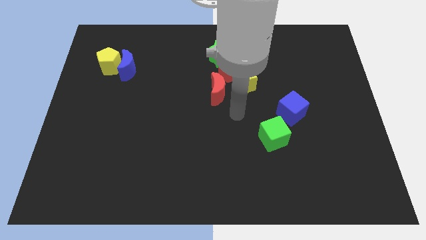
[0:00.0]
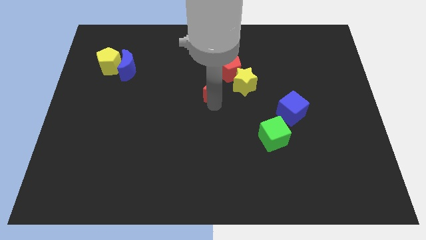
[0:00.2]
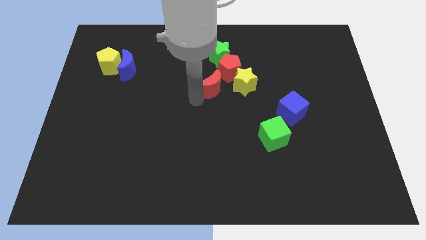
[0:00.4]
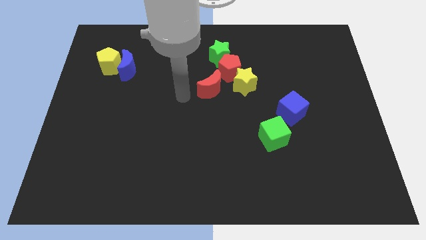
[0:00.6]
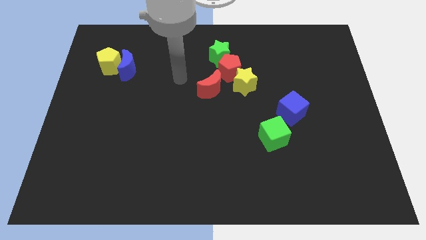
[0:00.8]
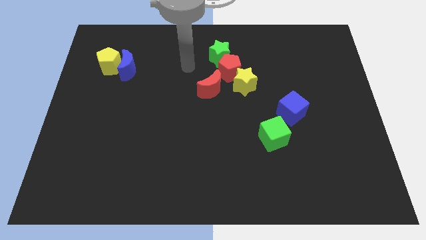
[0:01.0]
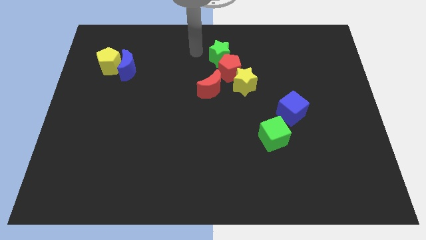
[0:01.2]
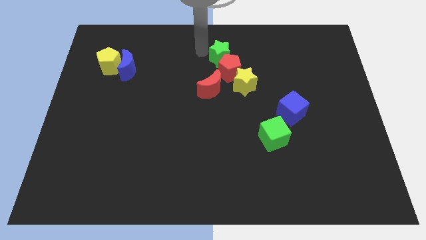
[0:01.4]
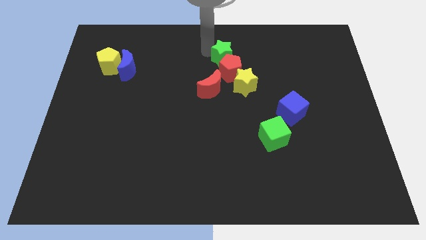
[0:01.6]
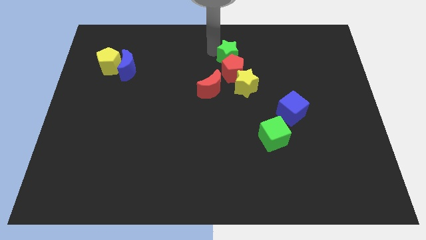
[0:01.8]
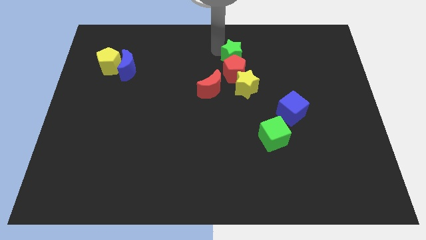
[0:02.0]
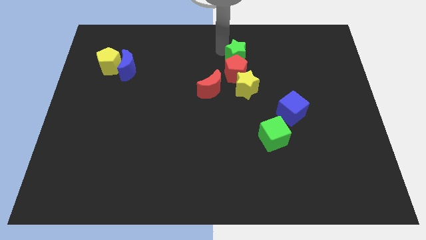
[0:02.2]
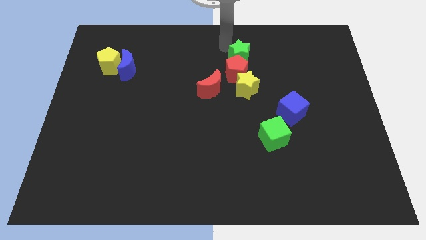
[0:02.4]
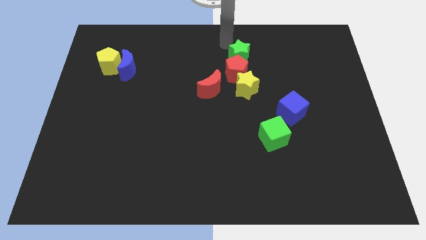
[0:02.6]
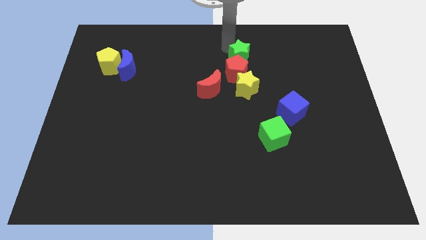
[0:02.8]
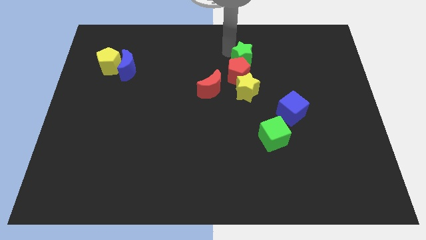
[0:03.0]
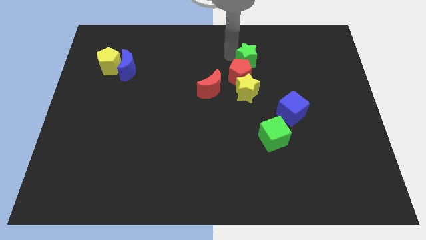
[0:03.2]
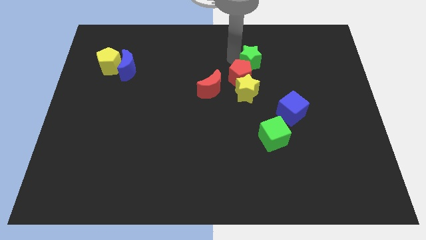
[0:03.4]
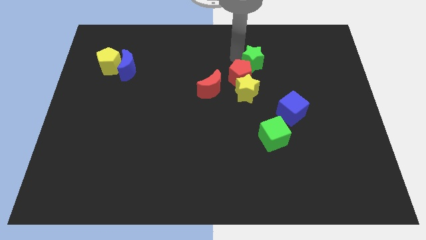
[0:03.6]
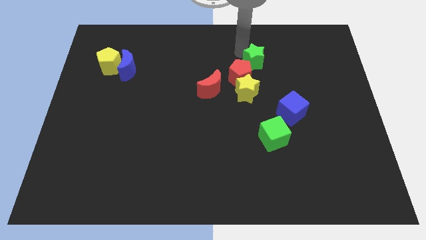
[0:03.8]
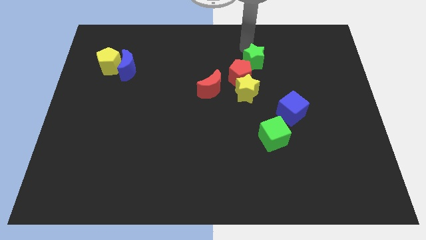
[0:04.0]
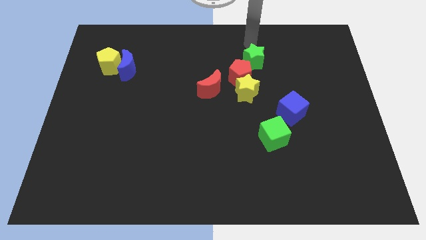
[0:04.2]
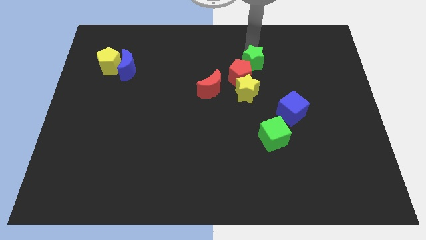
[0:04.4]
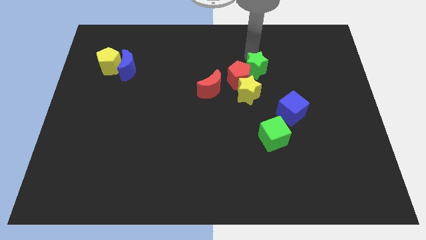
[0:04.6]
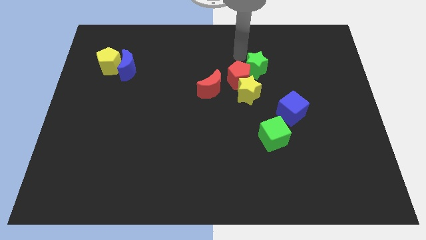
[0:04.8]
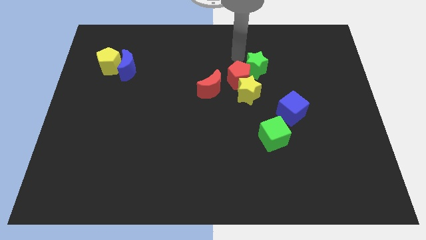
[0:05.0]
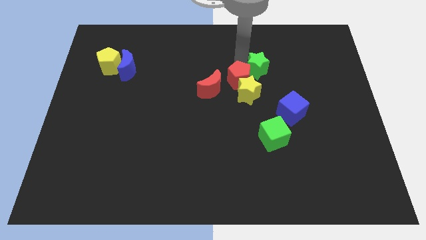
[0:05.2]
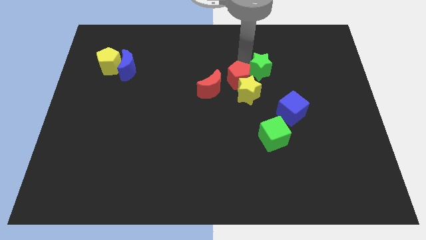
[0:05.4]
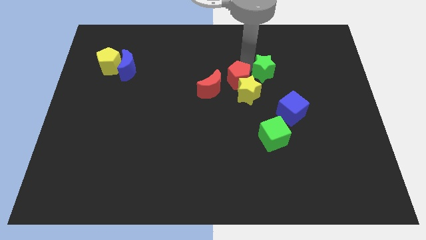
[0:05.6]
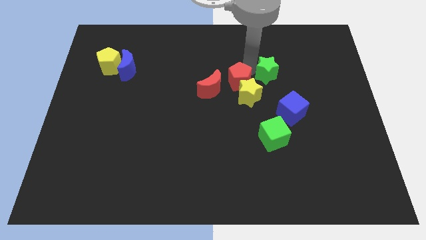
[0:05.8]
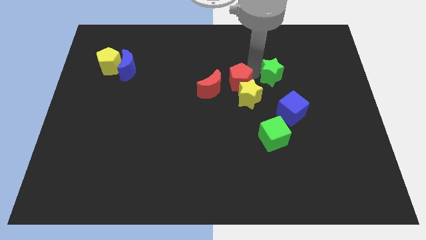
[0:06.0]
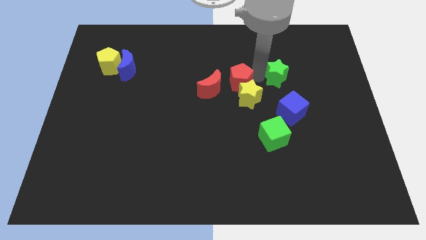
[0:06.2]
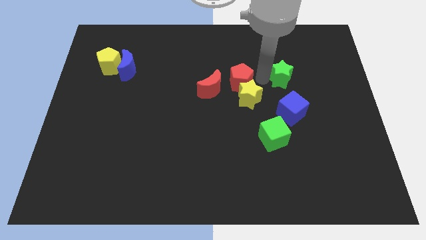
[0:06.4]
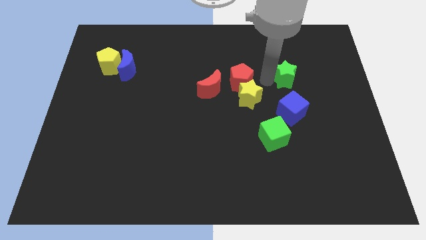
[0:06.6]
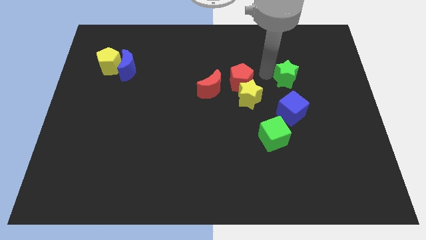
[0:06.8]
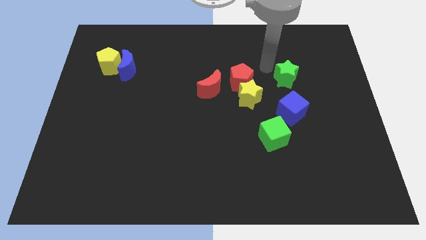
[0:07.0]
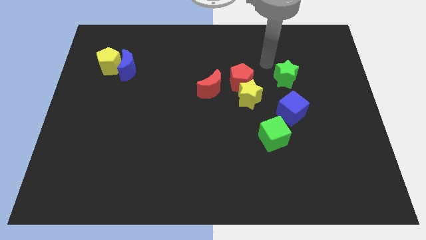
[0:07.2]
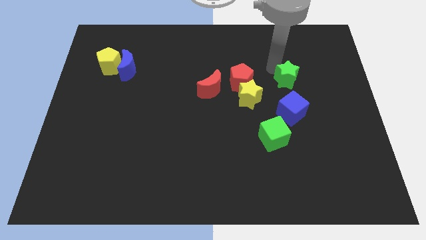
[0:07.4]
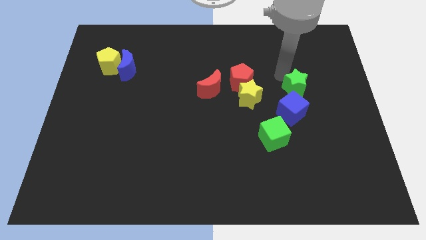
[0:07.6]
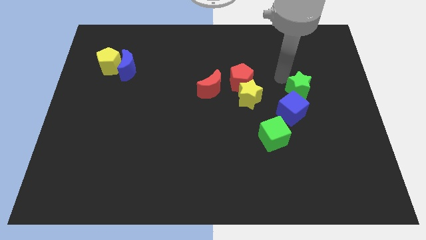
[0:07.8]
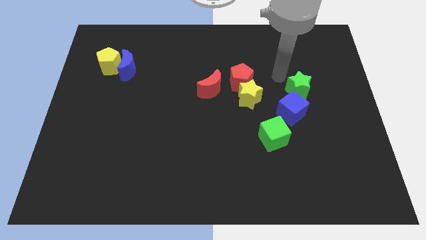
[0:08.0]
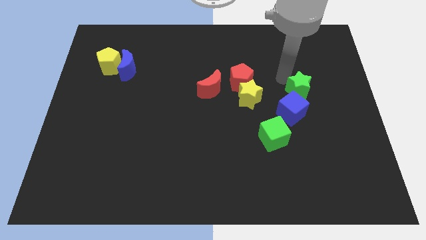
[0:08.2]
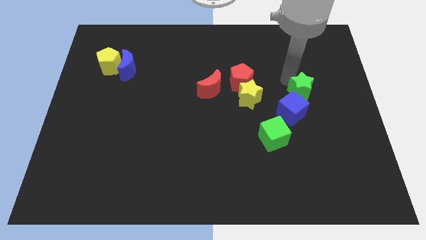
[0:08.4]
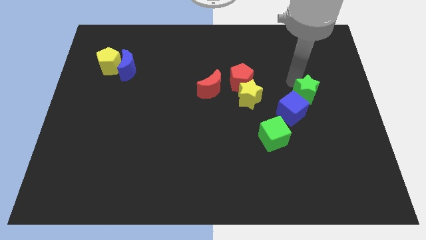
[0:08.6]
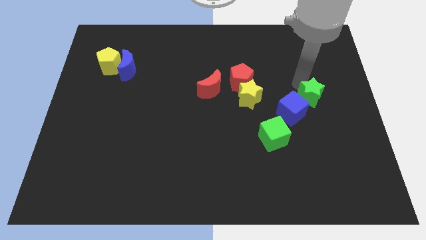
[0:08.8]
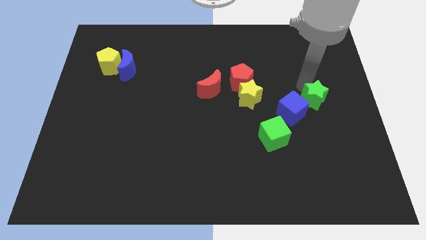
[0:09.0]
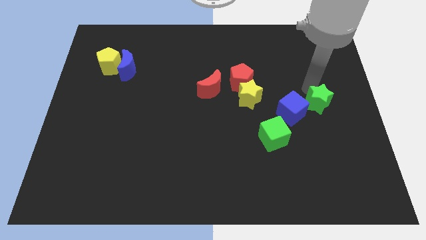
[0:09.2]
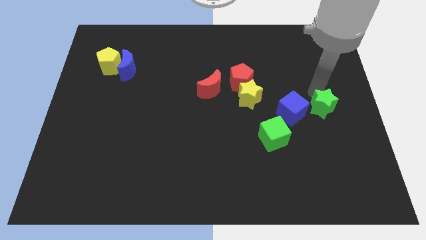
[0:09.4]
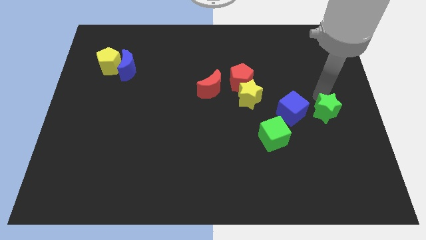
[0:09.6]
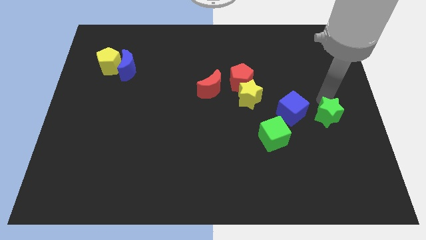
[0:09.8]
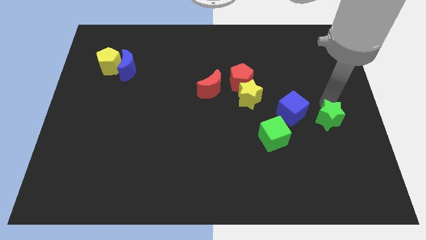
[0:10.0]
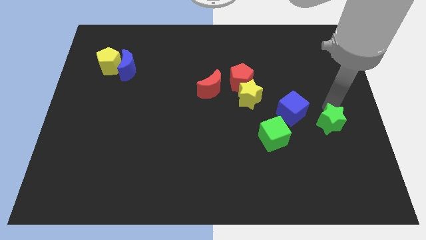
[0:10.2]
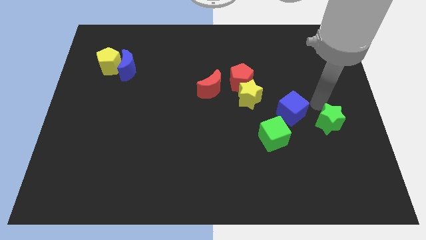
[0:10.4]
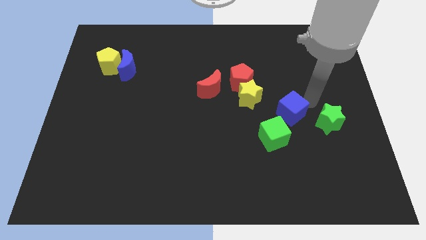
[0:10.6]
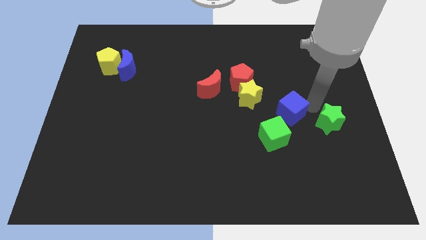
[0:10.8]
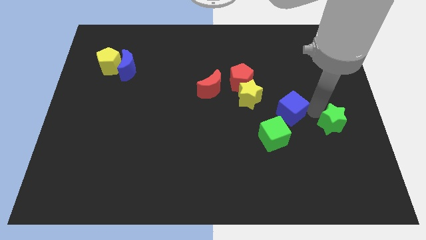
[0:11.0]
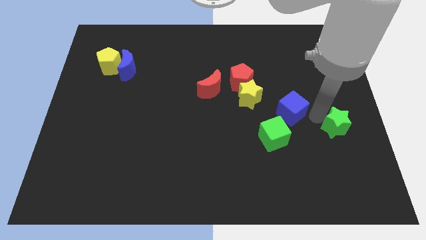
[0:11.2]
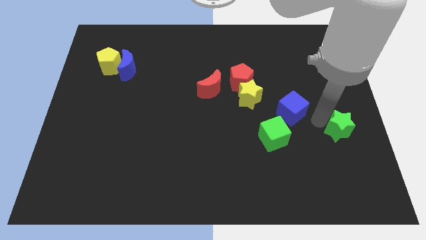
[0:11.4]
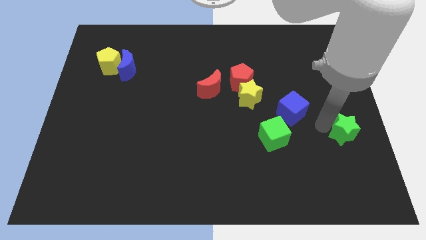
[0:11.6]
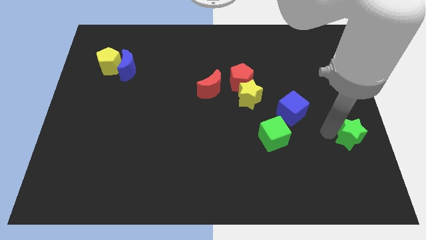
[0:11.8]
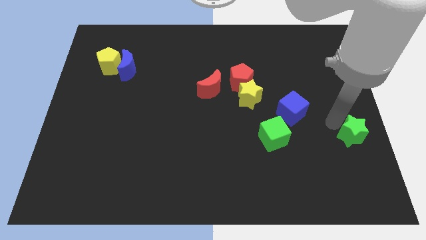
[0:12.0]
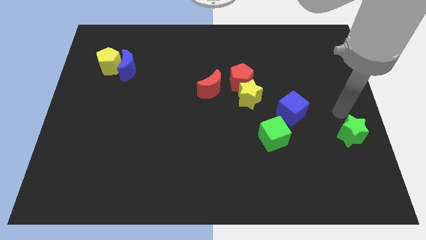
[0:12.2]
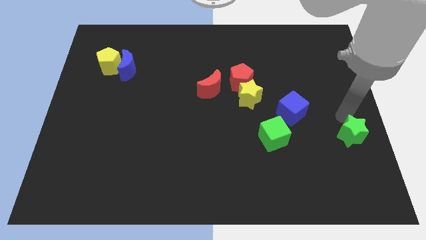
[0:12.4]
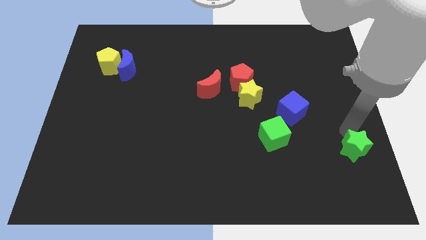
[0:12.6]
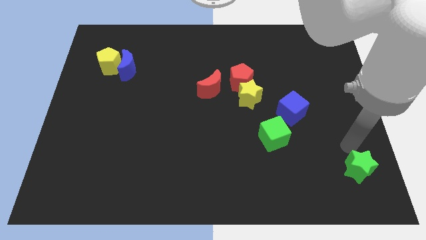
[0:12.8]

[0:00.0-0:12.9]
move the green star to the bottom right corner
